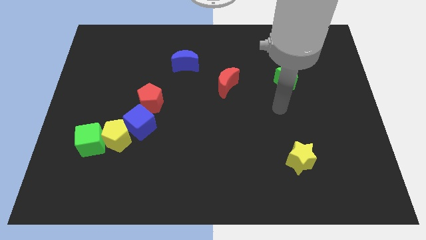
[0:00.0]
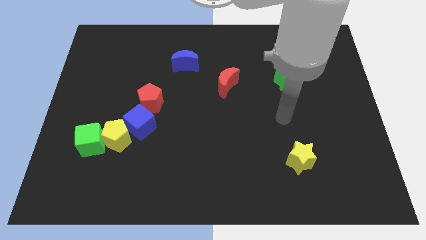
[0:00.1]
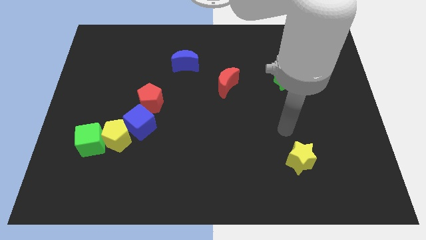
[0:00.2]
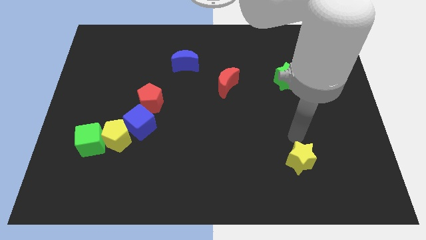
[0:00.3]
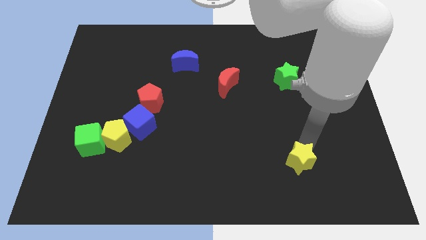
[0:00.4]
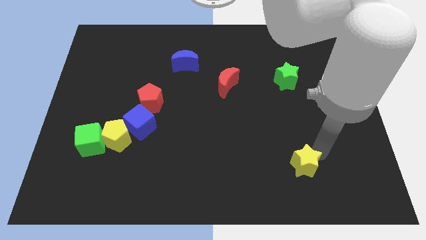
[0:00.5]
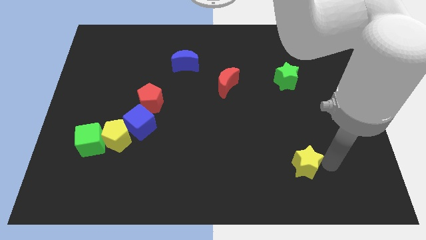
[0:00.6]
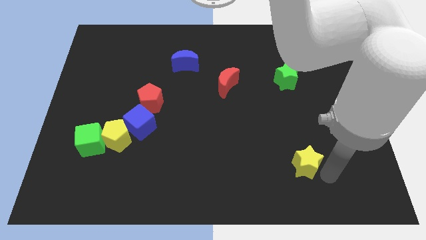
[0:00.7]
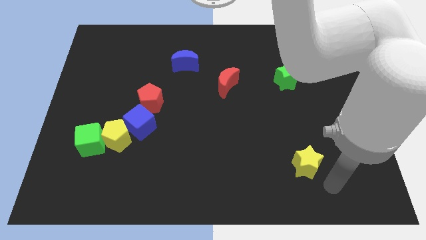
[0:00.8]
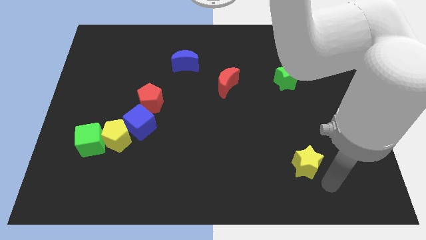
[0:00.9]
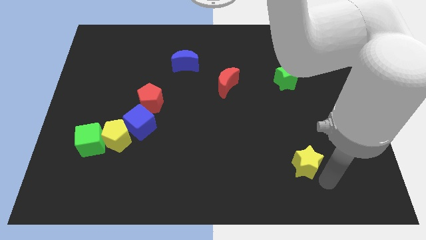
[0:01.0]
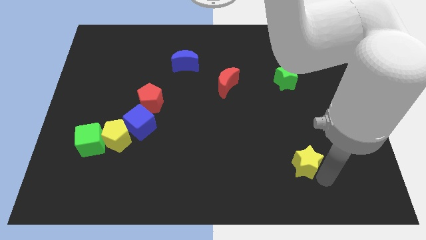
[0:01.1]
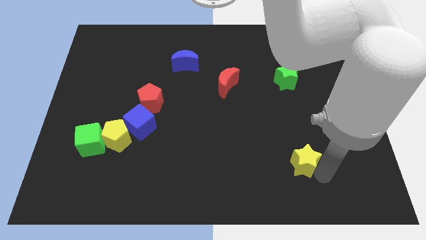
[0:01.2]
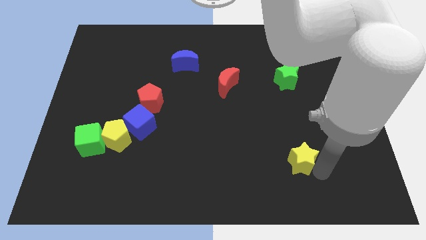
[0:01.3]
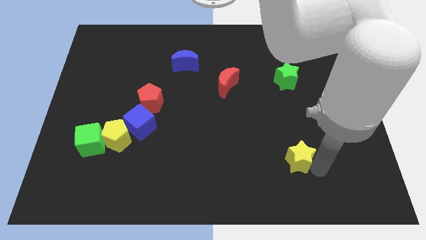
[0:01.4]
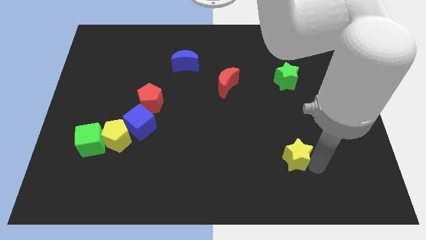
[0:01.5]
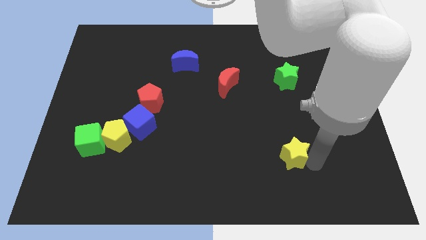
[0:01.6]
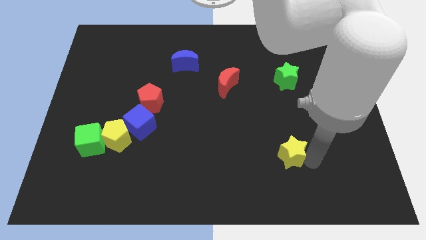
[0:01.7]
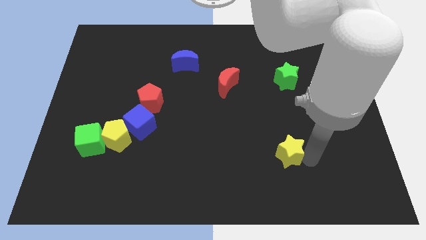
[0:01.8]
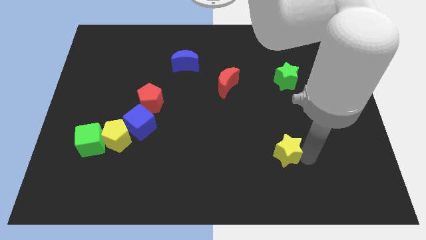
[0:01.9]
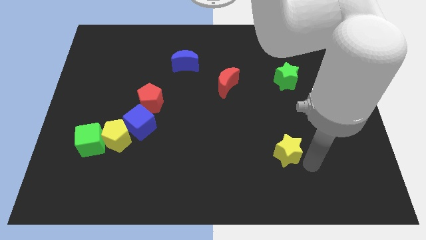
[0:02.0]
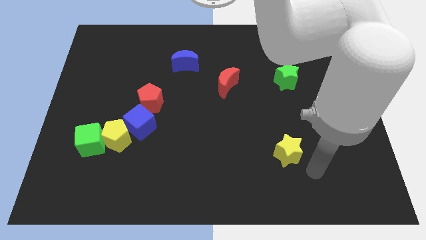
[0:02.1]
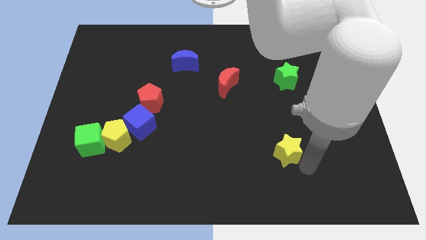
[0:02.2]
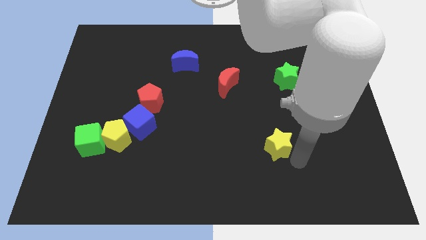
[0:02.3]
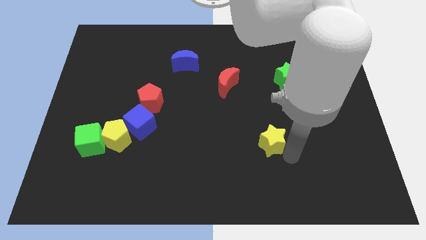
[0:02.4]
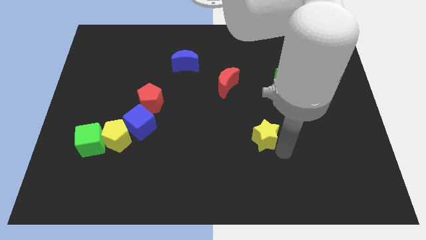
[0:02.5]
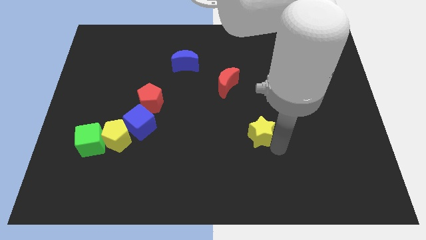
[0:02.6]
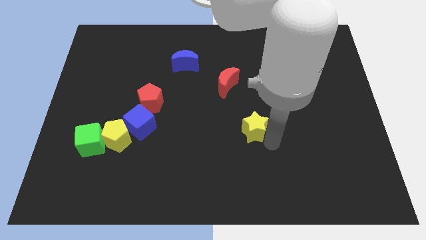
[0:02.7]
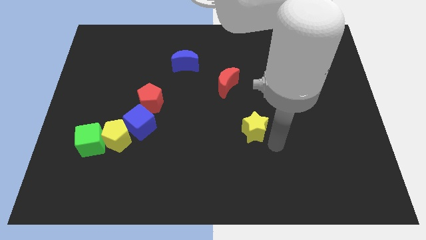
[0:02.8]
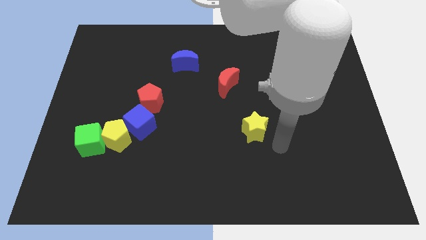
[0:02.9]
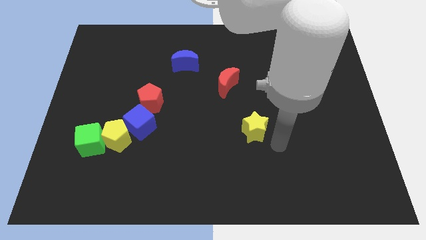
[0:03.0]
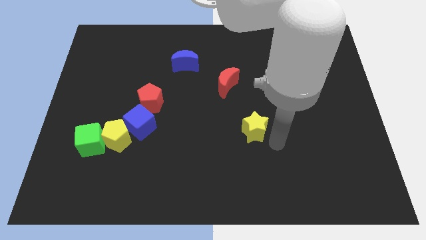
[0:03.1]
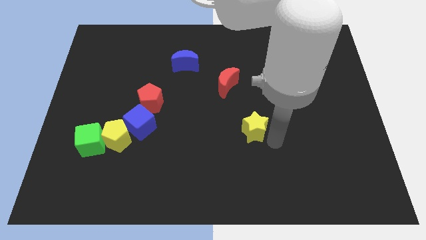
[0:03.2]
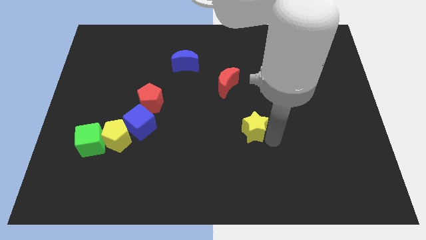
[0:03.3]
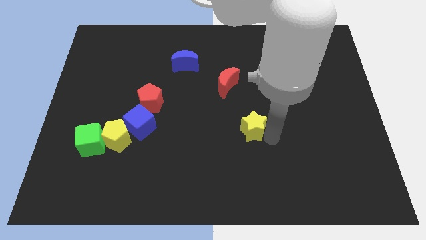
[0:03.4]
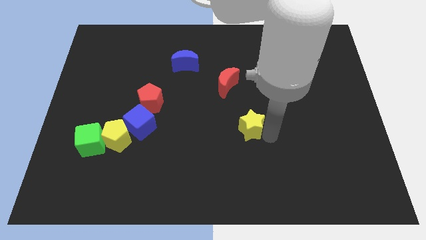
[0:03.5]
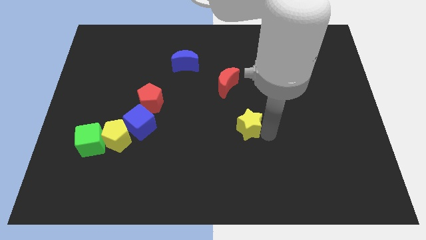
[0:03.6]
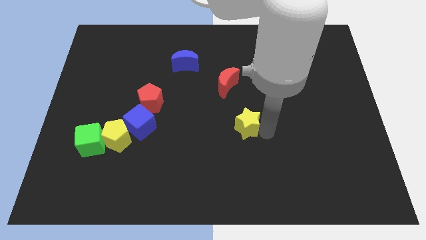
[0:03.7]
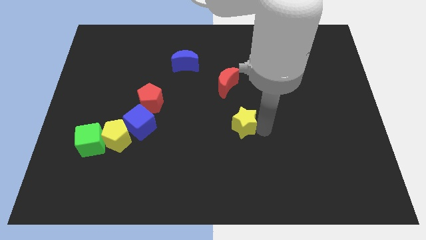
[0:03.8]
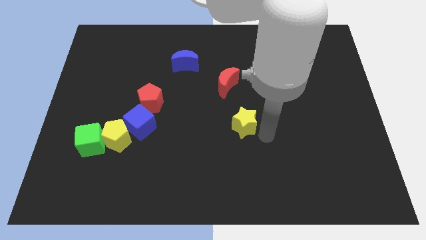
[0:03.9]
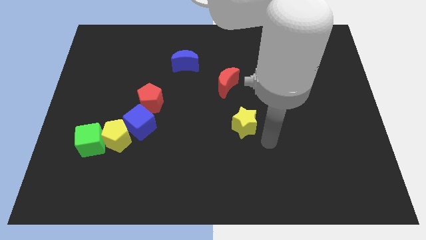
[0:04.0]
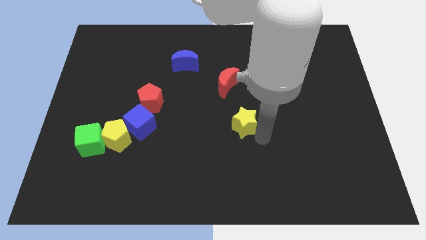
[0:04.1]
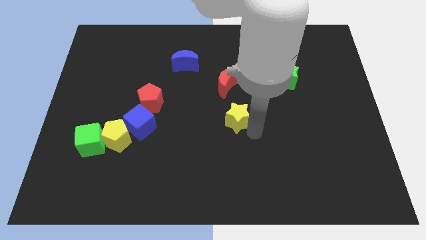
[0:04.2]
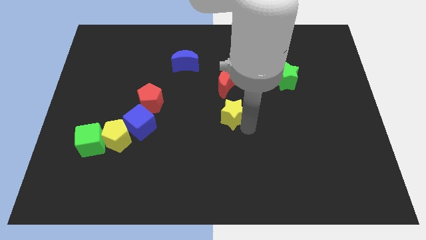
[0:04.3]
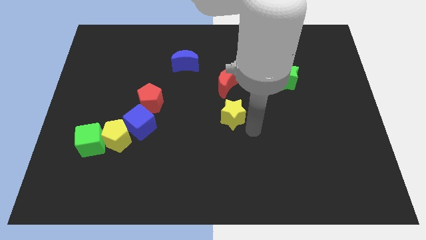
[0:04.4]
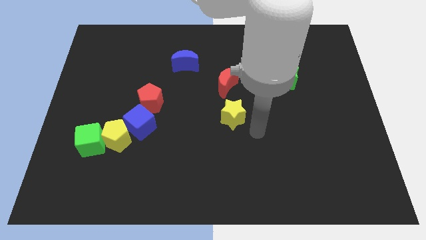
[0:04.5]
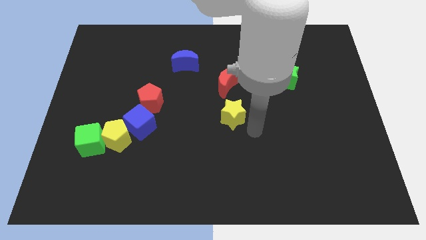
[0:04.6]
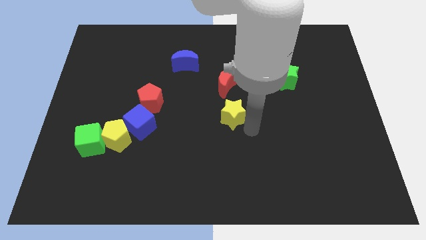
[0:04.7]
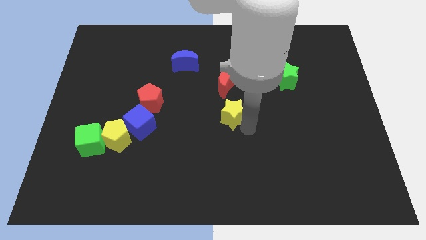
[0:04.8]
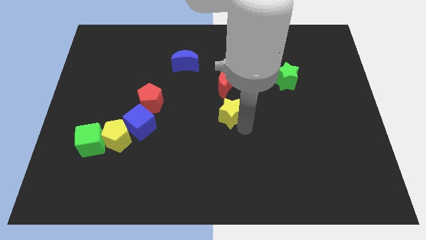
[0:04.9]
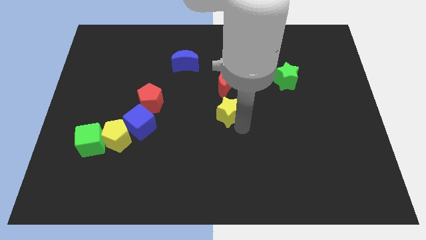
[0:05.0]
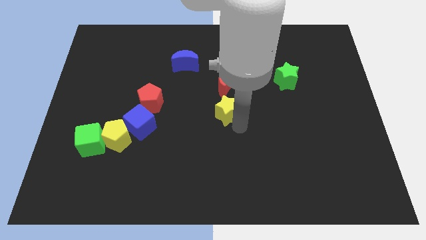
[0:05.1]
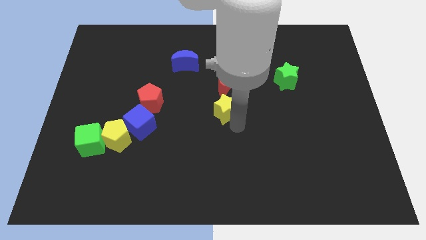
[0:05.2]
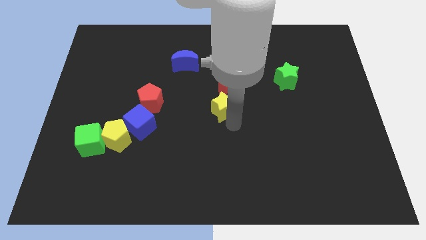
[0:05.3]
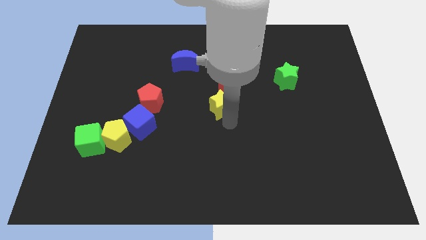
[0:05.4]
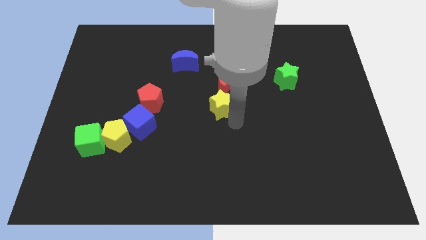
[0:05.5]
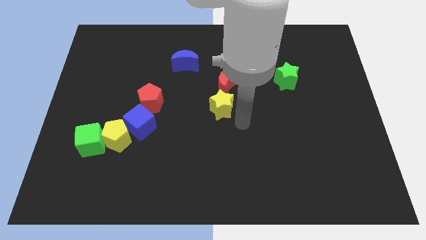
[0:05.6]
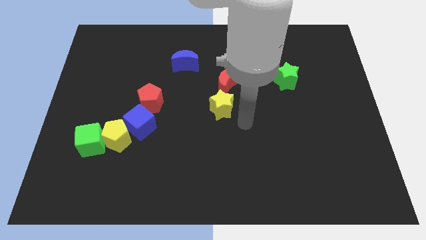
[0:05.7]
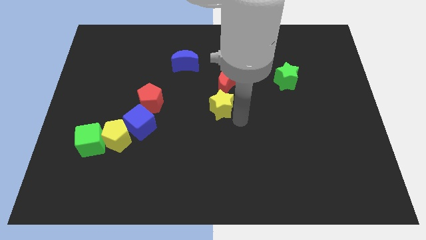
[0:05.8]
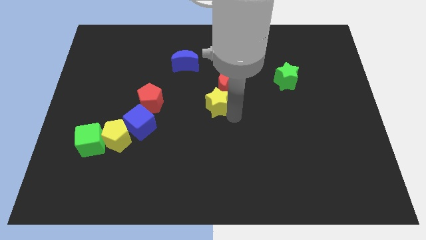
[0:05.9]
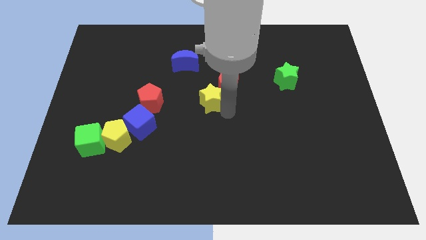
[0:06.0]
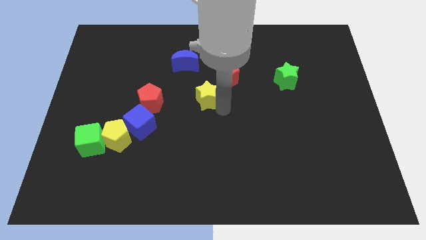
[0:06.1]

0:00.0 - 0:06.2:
put the yellow star just left of the red moon
